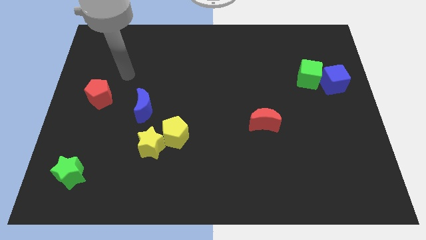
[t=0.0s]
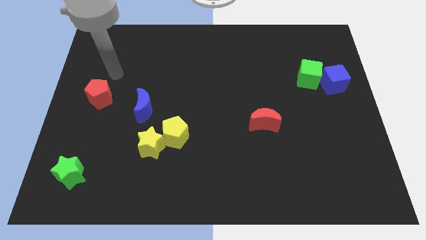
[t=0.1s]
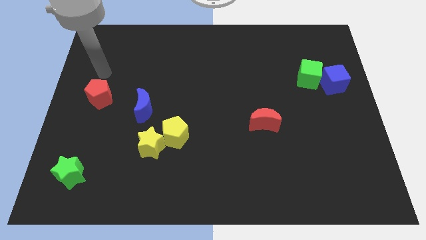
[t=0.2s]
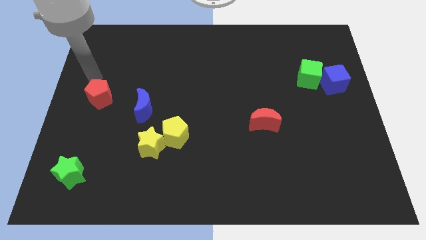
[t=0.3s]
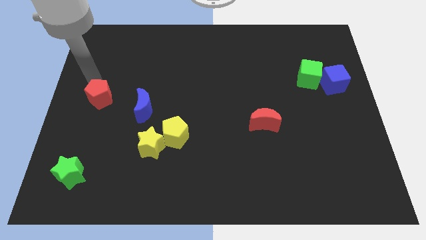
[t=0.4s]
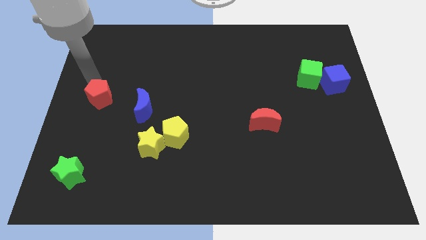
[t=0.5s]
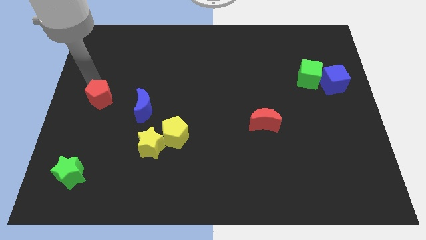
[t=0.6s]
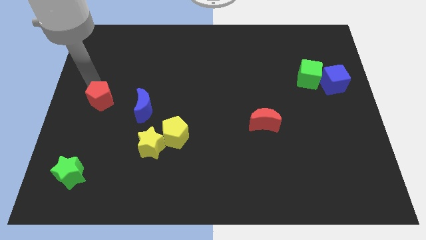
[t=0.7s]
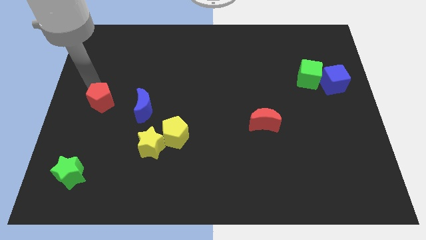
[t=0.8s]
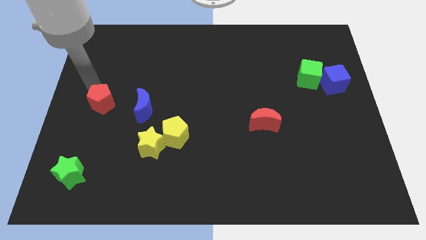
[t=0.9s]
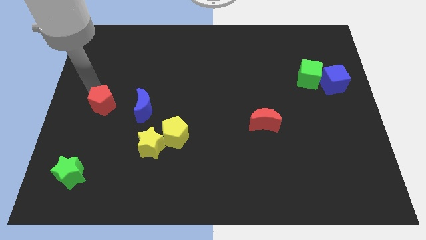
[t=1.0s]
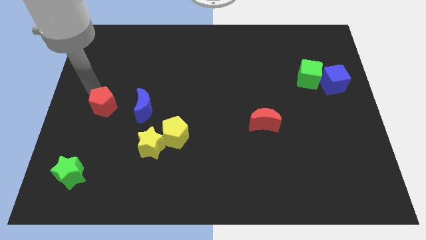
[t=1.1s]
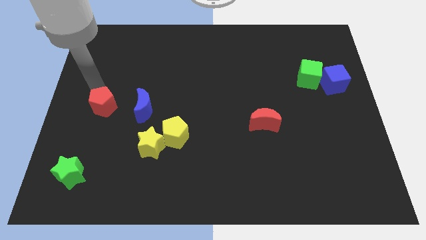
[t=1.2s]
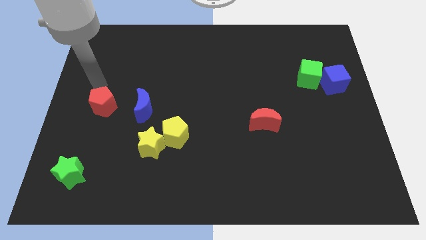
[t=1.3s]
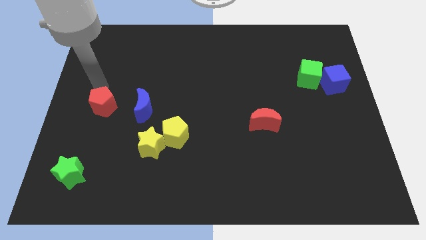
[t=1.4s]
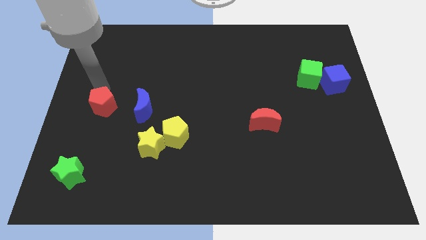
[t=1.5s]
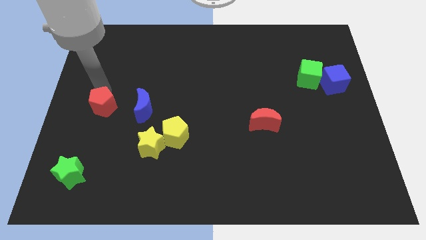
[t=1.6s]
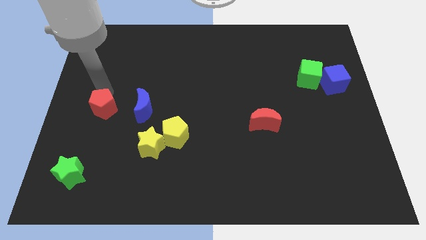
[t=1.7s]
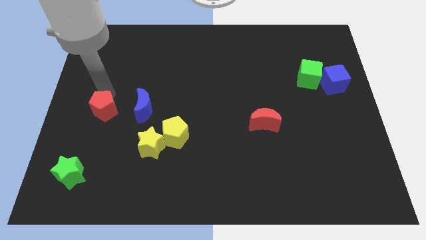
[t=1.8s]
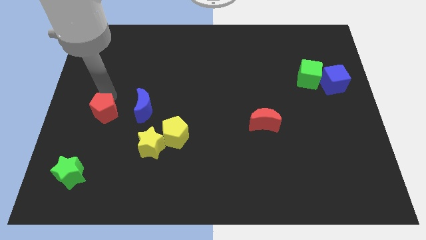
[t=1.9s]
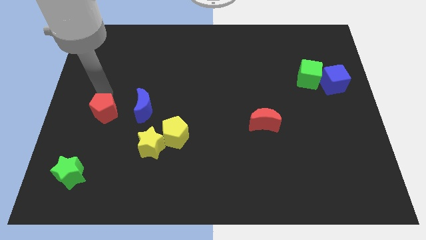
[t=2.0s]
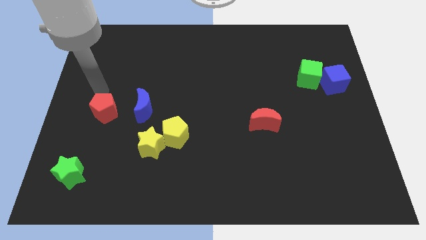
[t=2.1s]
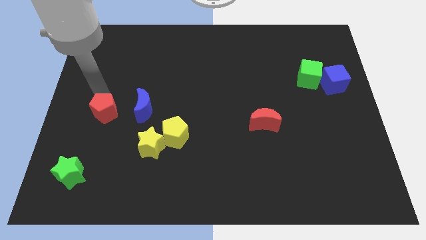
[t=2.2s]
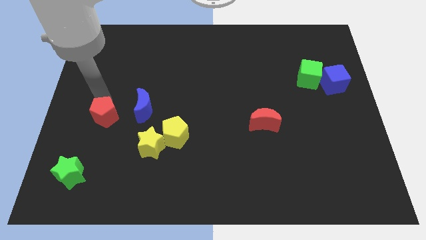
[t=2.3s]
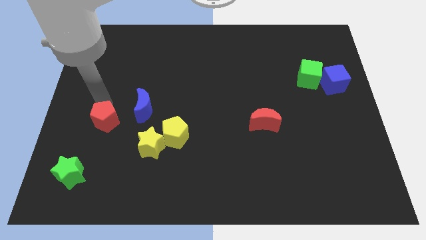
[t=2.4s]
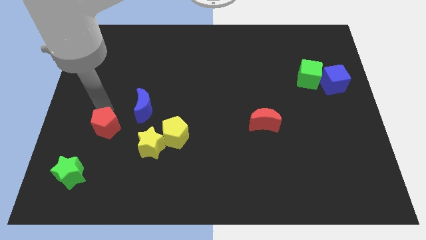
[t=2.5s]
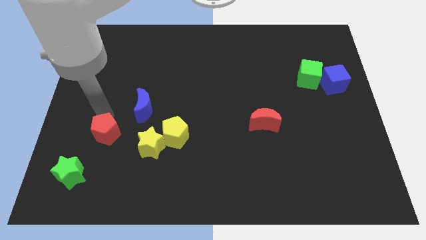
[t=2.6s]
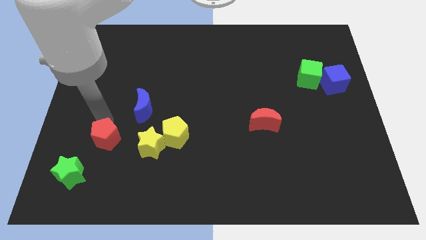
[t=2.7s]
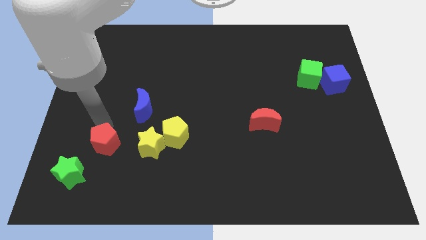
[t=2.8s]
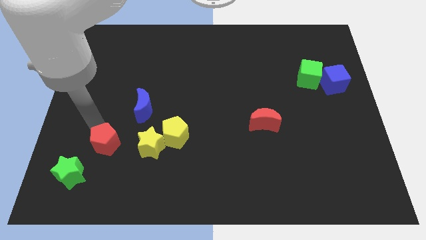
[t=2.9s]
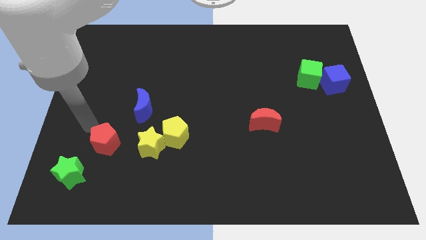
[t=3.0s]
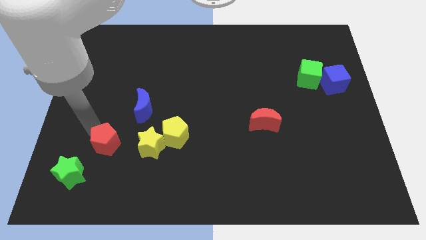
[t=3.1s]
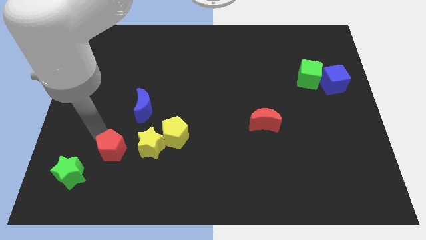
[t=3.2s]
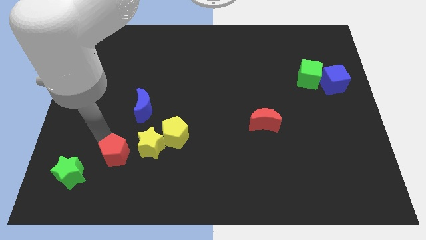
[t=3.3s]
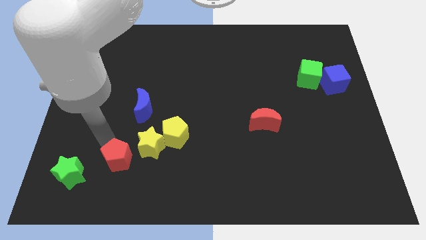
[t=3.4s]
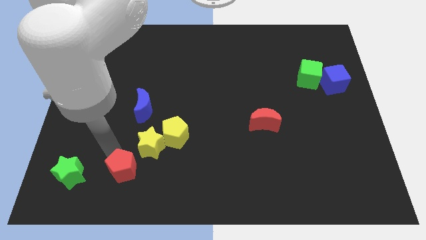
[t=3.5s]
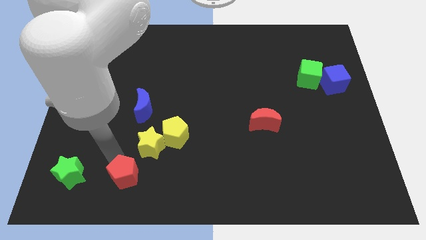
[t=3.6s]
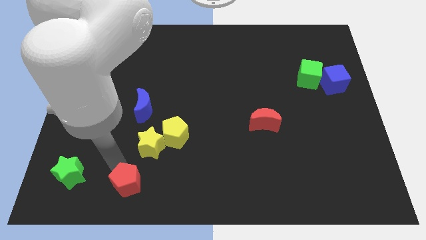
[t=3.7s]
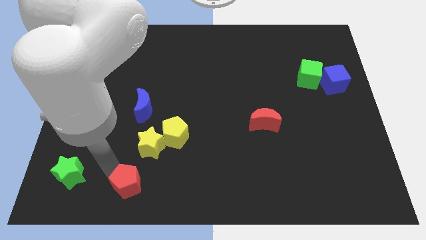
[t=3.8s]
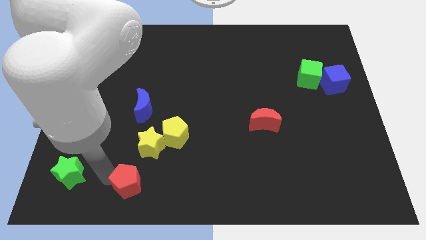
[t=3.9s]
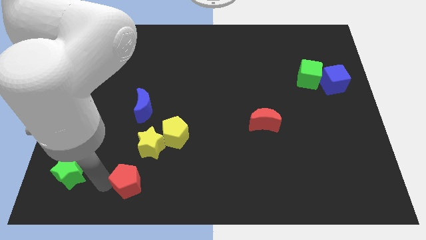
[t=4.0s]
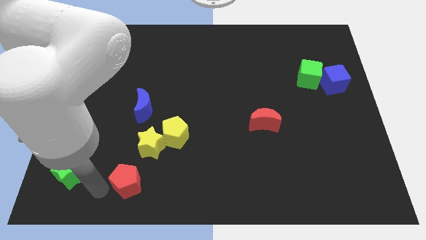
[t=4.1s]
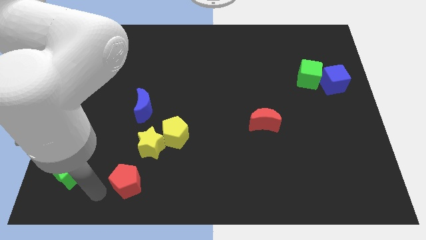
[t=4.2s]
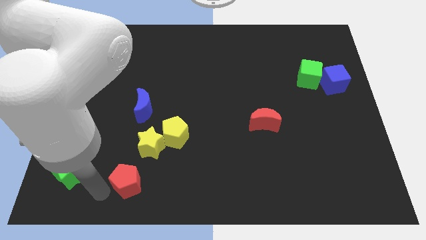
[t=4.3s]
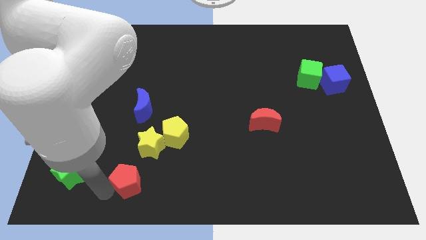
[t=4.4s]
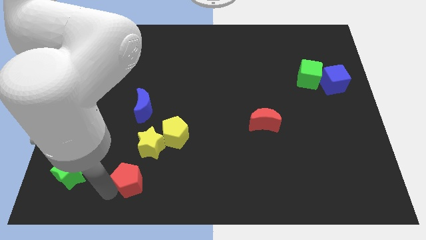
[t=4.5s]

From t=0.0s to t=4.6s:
move the red pentagon diagonally down and to the right

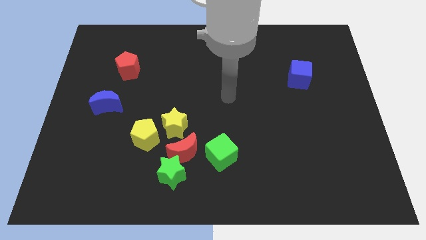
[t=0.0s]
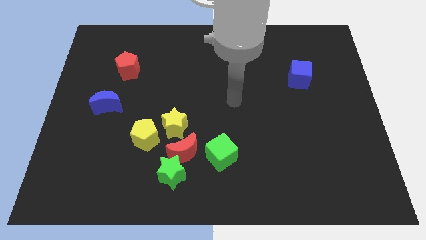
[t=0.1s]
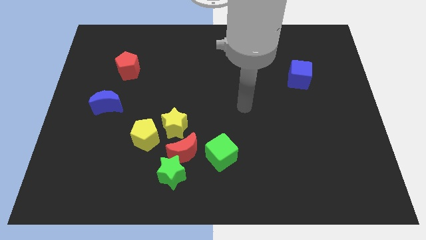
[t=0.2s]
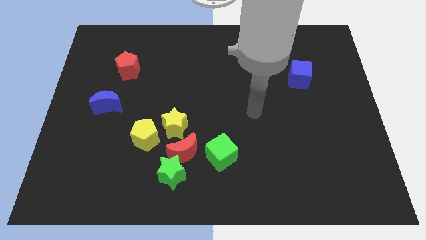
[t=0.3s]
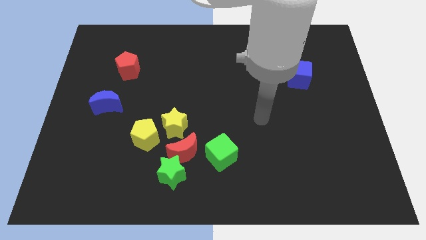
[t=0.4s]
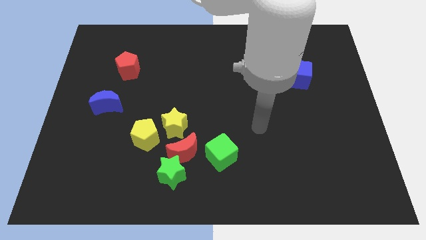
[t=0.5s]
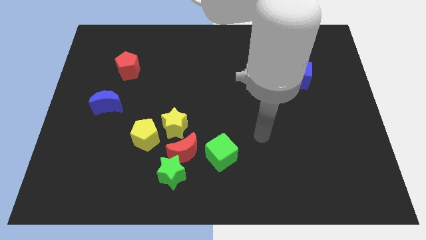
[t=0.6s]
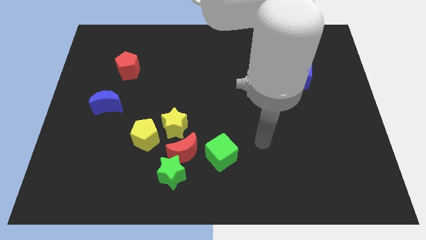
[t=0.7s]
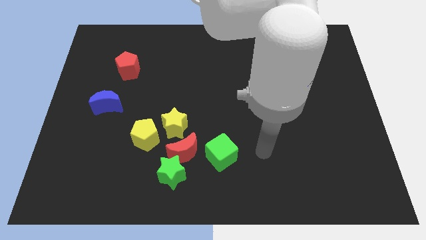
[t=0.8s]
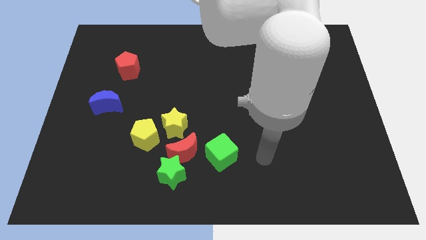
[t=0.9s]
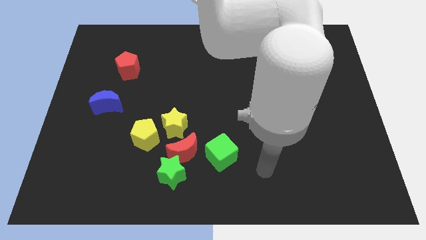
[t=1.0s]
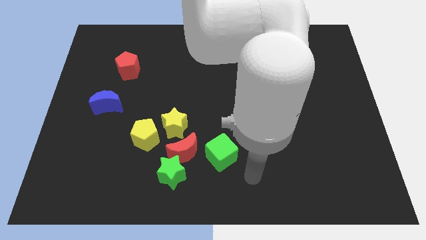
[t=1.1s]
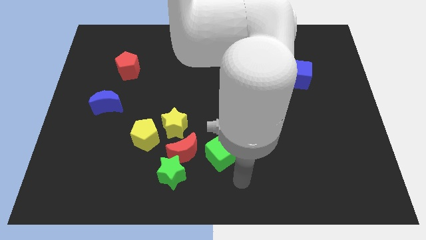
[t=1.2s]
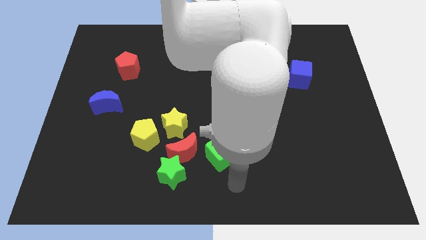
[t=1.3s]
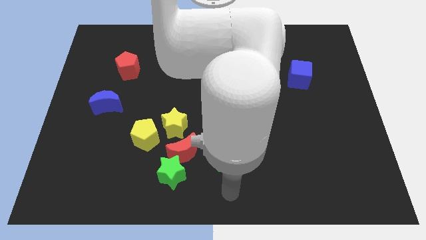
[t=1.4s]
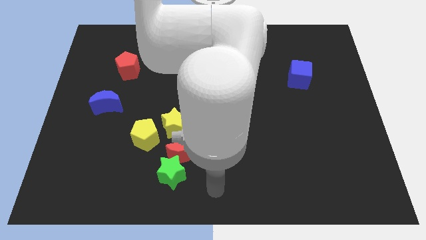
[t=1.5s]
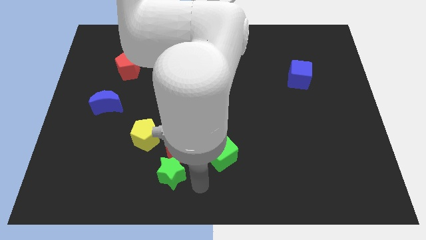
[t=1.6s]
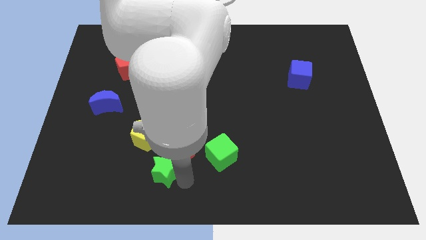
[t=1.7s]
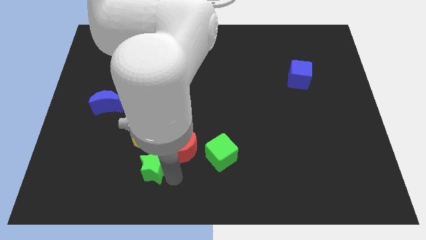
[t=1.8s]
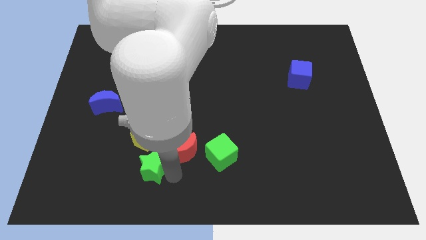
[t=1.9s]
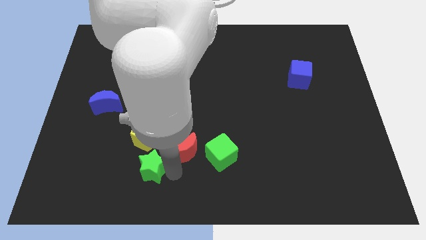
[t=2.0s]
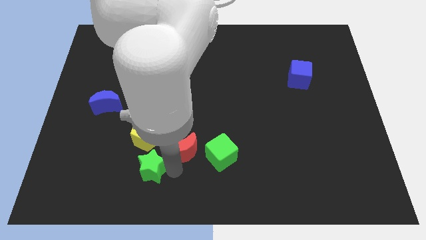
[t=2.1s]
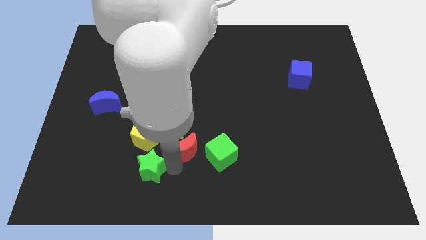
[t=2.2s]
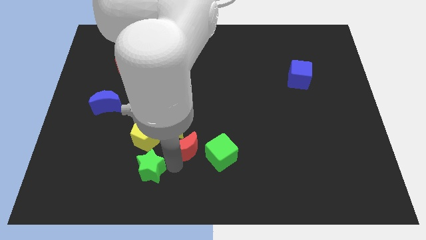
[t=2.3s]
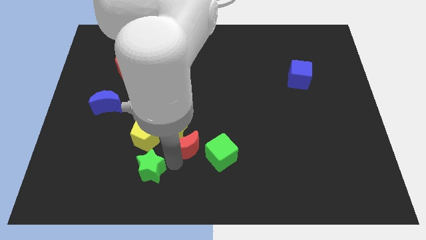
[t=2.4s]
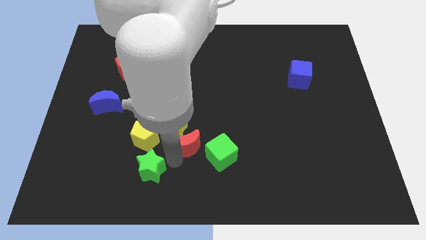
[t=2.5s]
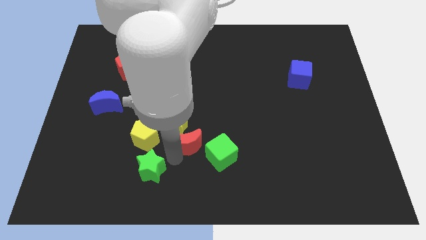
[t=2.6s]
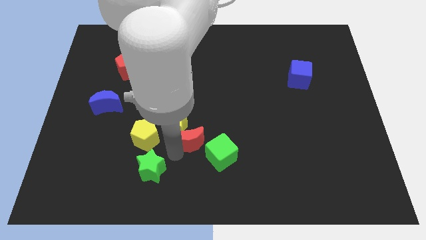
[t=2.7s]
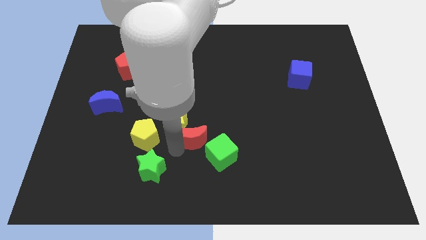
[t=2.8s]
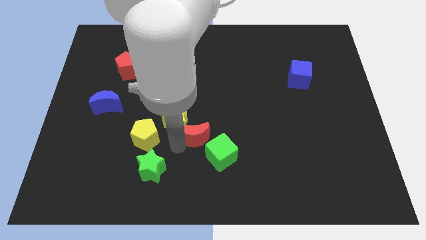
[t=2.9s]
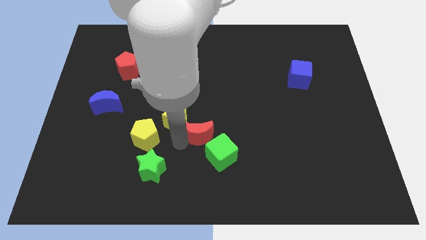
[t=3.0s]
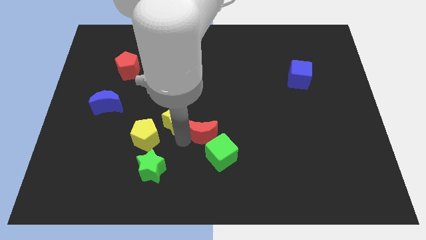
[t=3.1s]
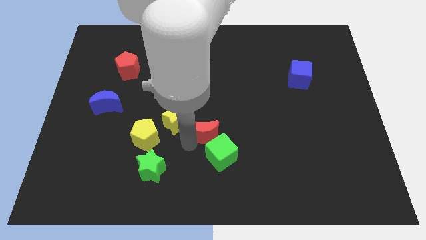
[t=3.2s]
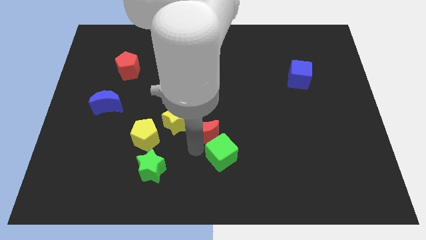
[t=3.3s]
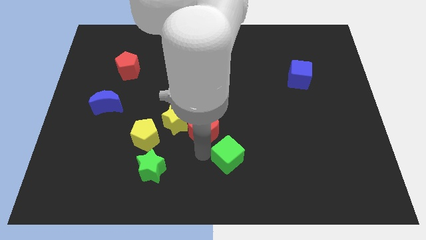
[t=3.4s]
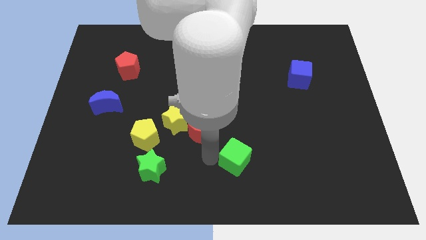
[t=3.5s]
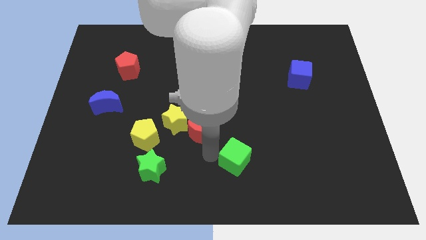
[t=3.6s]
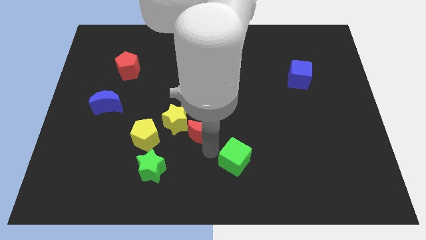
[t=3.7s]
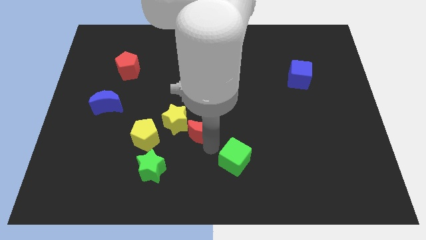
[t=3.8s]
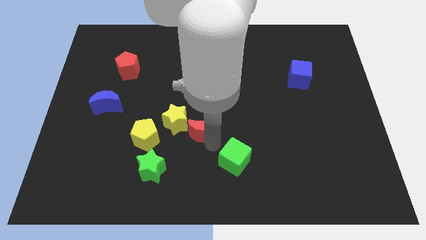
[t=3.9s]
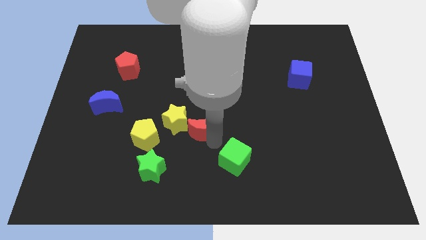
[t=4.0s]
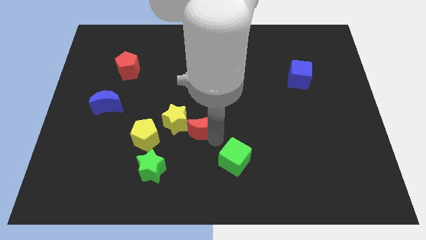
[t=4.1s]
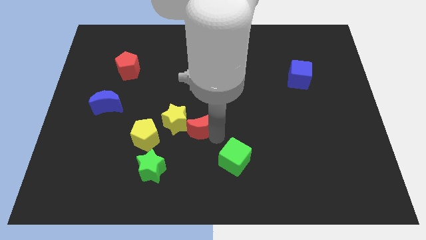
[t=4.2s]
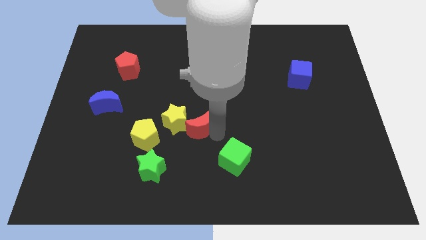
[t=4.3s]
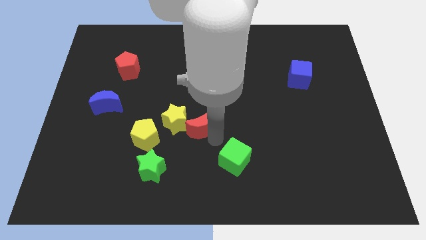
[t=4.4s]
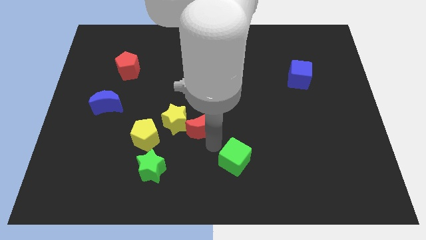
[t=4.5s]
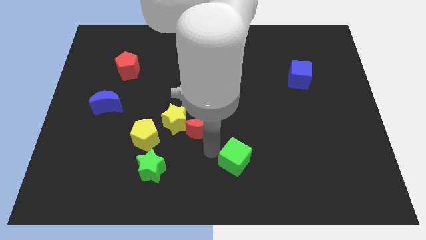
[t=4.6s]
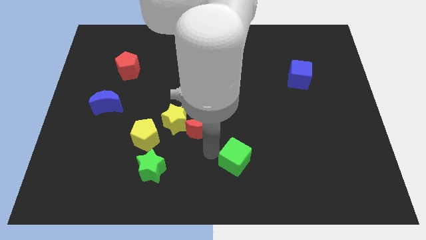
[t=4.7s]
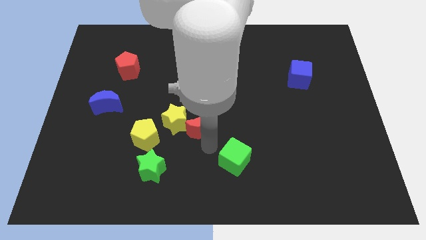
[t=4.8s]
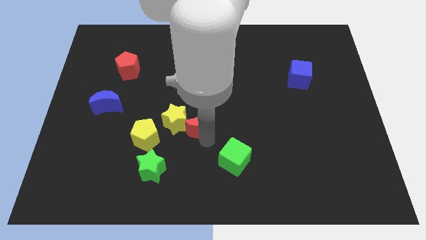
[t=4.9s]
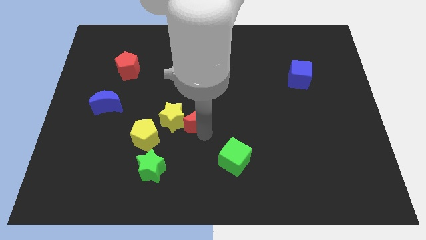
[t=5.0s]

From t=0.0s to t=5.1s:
slightly move the red moon upwards
